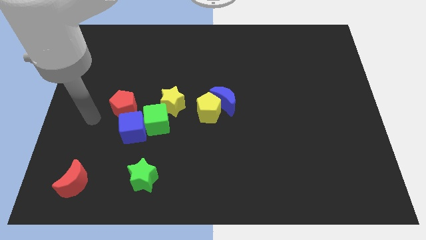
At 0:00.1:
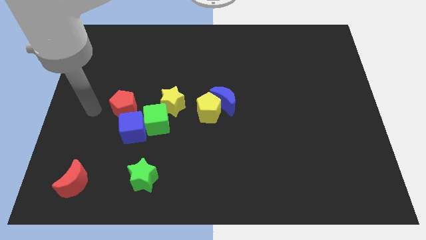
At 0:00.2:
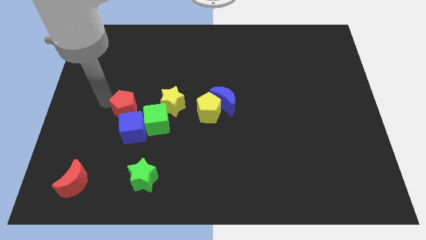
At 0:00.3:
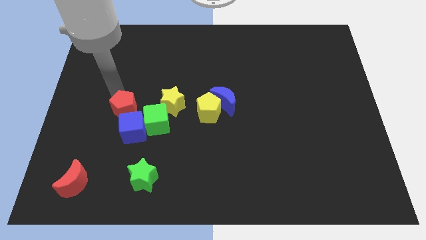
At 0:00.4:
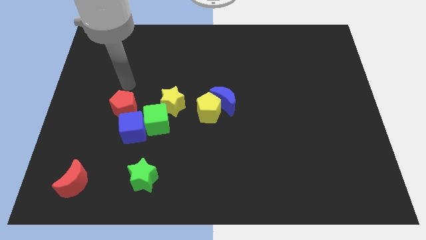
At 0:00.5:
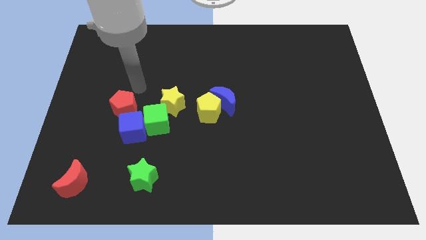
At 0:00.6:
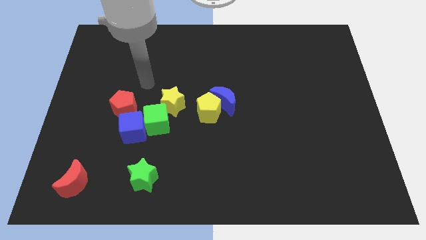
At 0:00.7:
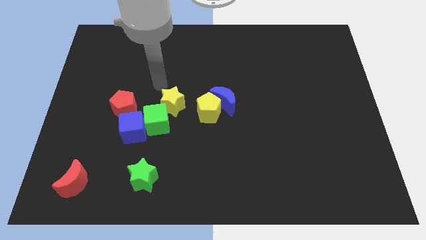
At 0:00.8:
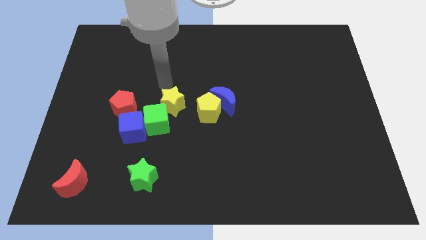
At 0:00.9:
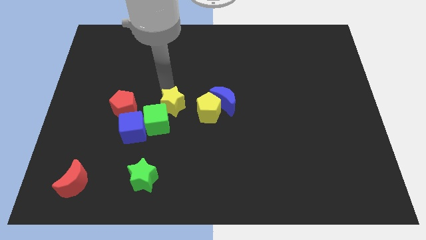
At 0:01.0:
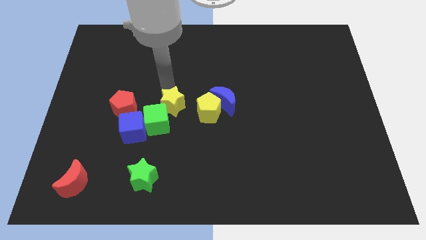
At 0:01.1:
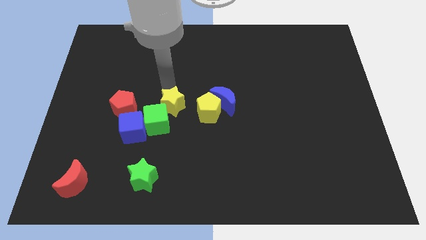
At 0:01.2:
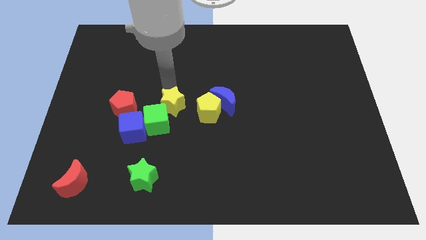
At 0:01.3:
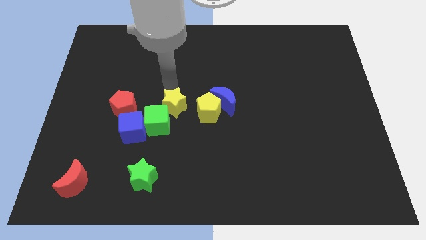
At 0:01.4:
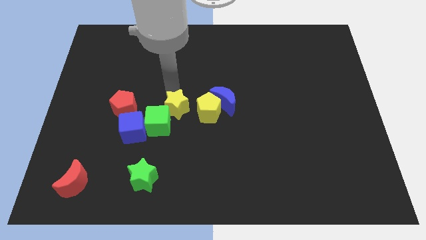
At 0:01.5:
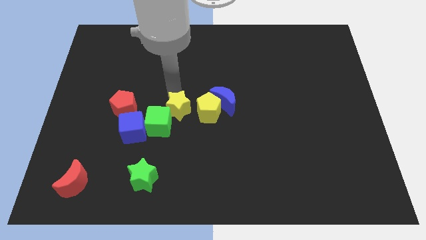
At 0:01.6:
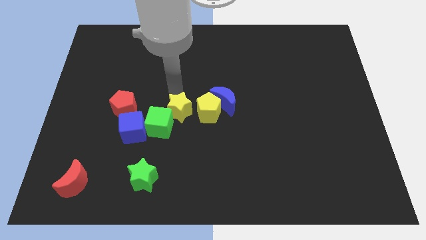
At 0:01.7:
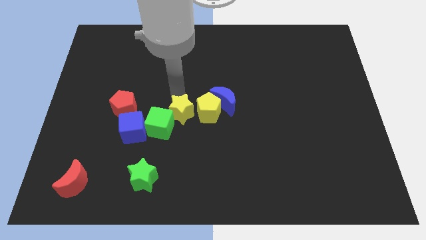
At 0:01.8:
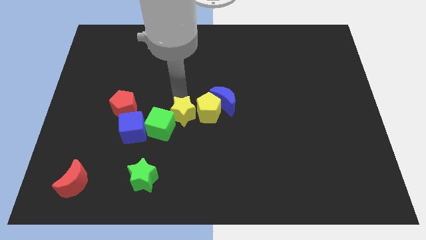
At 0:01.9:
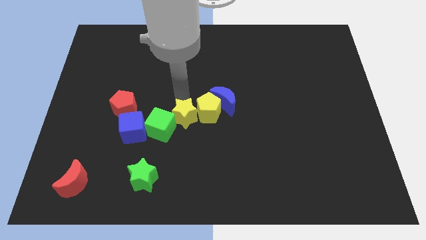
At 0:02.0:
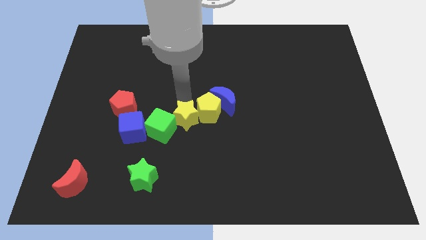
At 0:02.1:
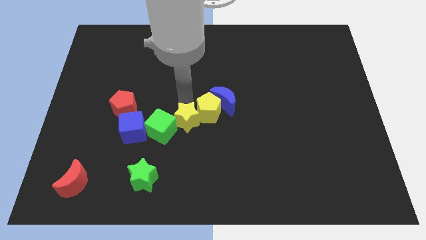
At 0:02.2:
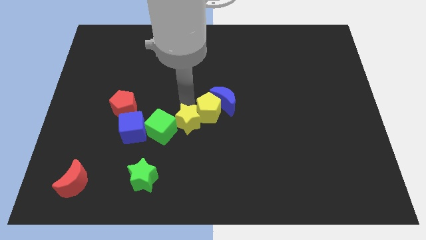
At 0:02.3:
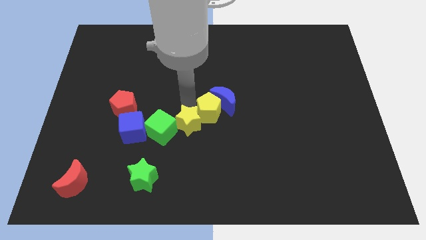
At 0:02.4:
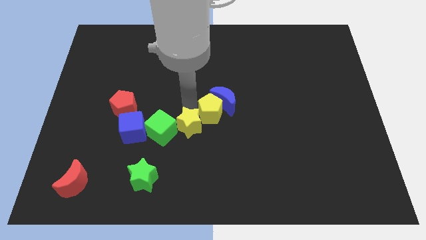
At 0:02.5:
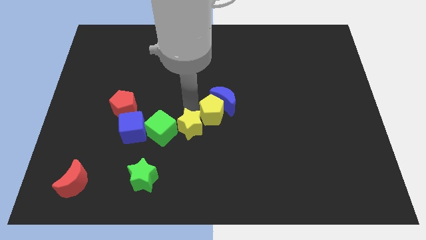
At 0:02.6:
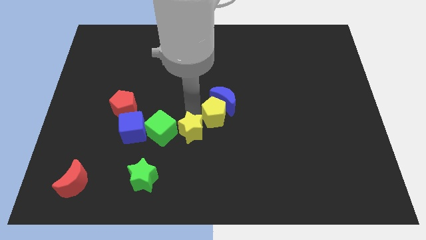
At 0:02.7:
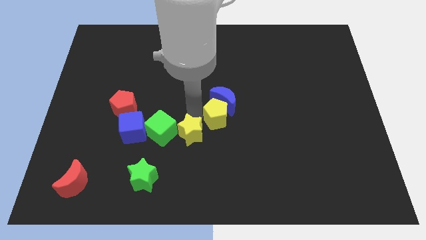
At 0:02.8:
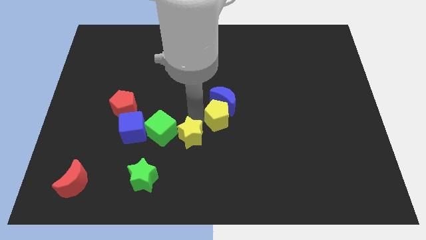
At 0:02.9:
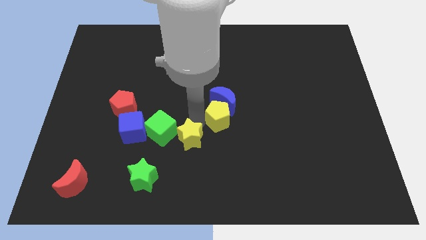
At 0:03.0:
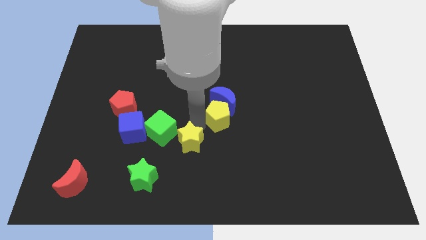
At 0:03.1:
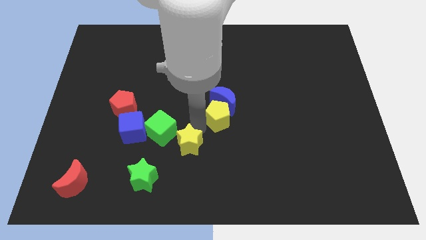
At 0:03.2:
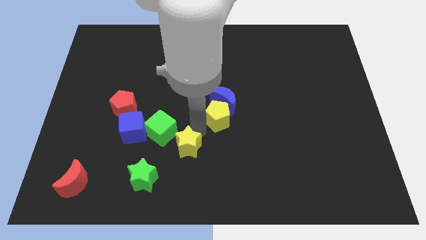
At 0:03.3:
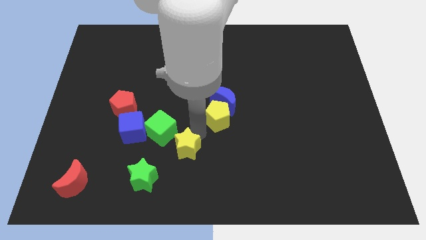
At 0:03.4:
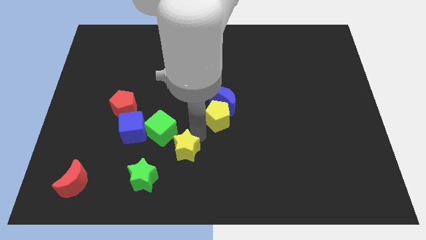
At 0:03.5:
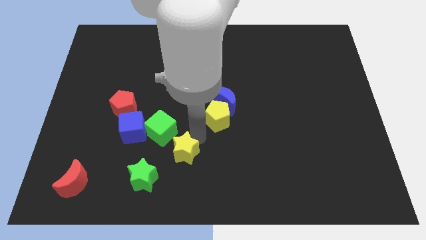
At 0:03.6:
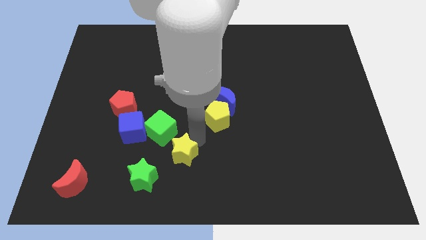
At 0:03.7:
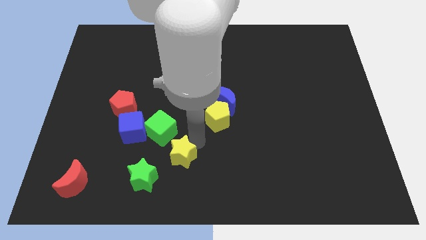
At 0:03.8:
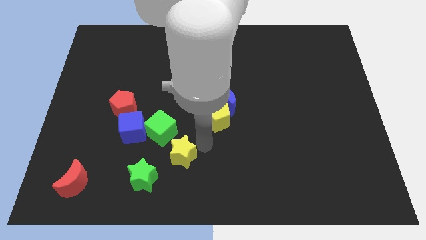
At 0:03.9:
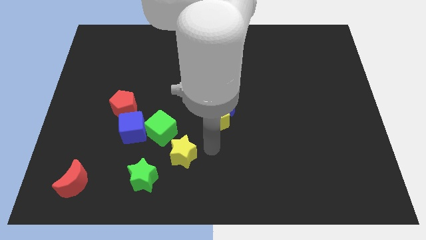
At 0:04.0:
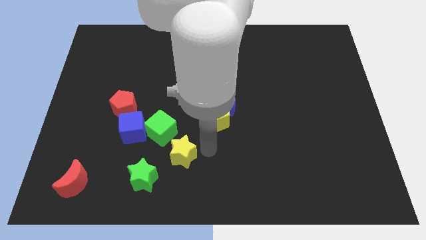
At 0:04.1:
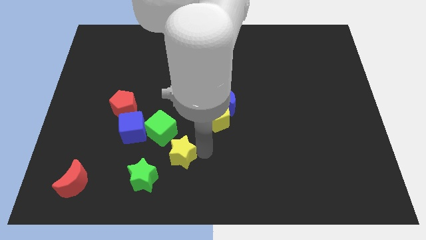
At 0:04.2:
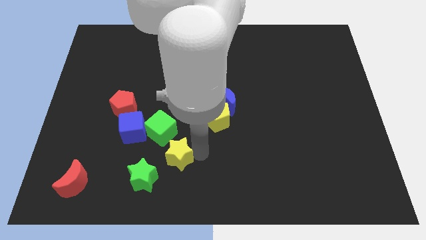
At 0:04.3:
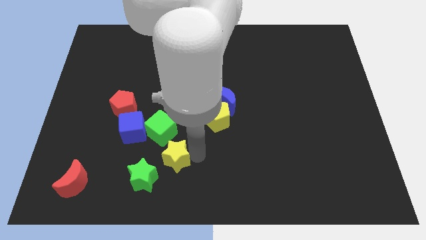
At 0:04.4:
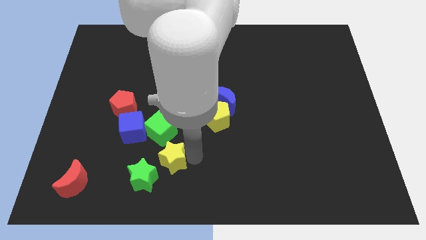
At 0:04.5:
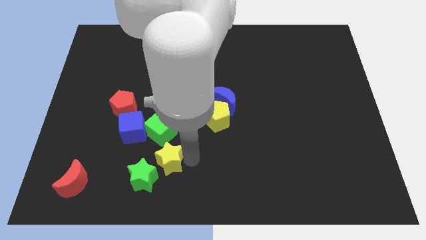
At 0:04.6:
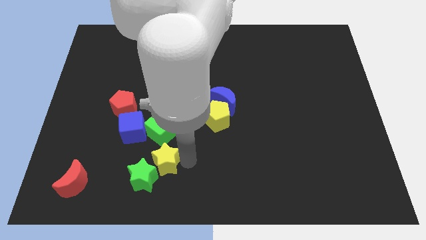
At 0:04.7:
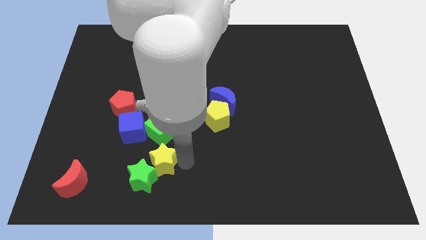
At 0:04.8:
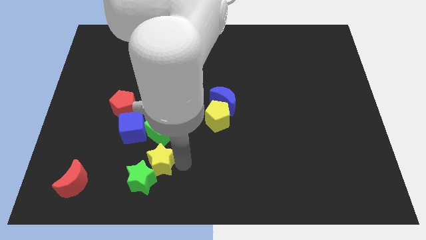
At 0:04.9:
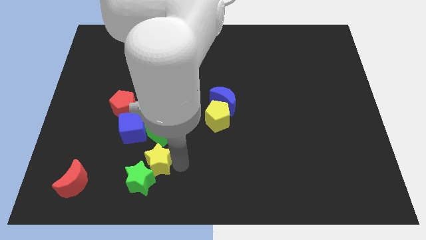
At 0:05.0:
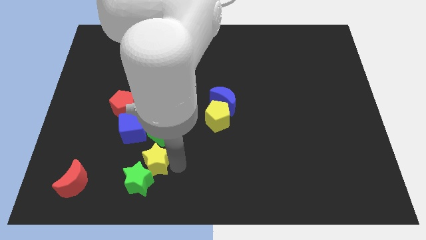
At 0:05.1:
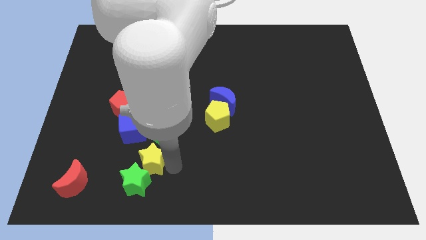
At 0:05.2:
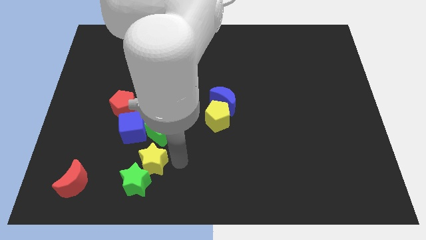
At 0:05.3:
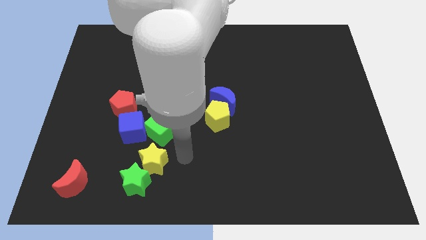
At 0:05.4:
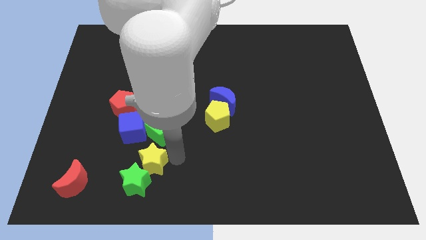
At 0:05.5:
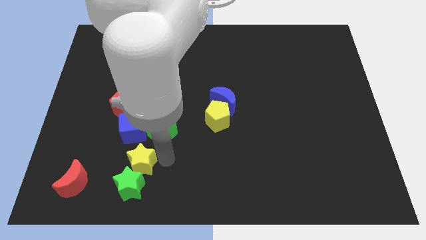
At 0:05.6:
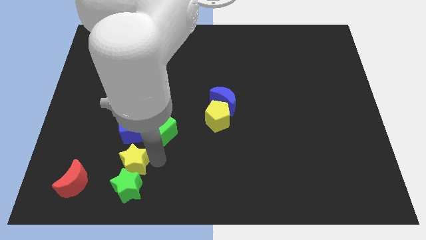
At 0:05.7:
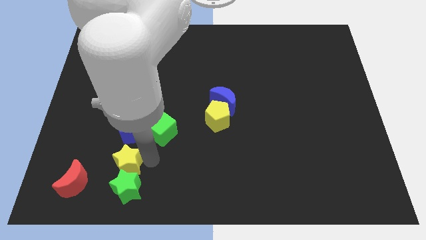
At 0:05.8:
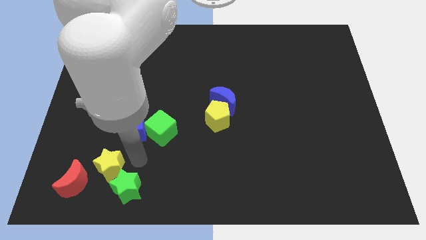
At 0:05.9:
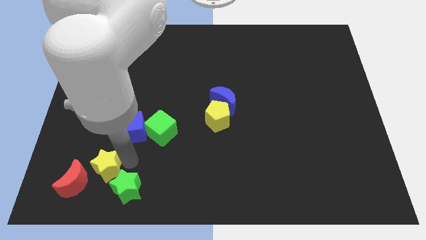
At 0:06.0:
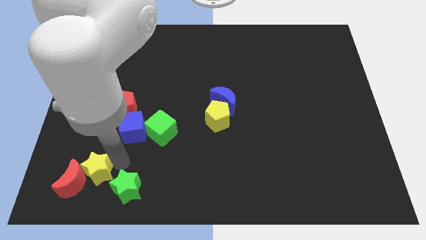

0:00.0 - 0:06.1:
put the yellow star close to the red moon

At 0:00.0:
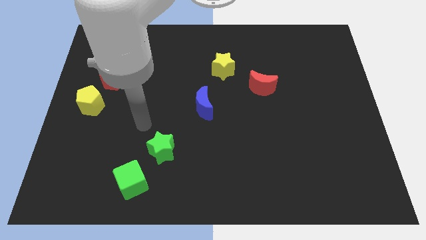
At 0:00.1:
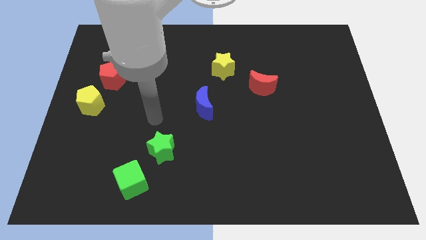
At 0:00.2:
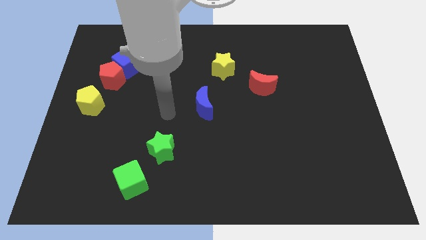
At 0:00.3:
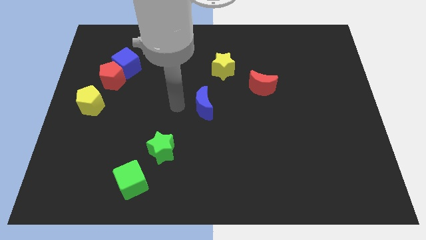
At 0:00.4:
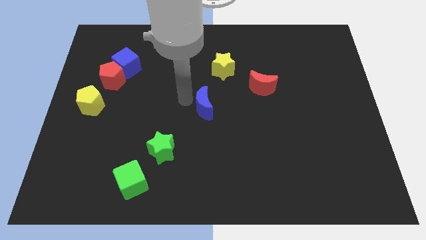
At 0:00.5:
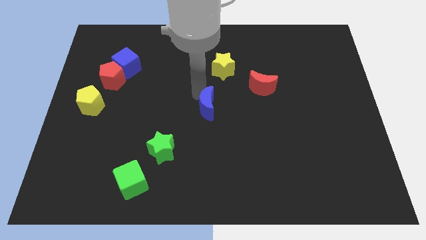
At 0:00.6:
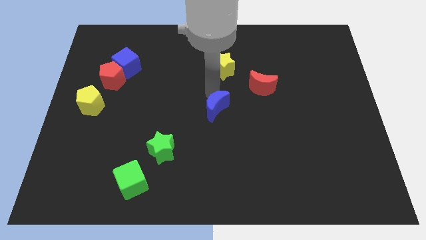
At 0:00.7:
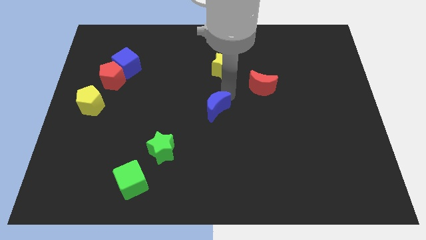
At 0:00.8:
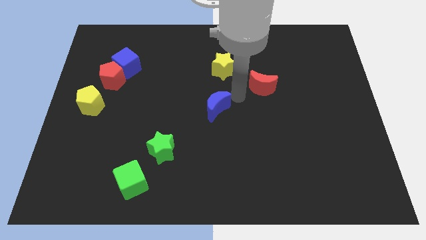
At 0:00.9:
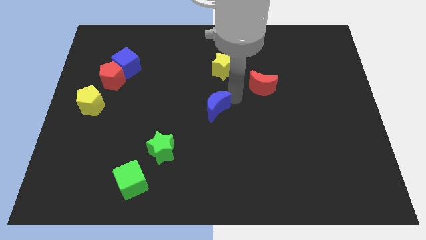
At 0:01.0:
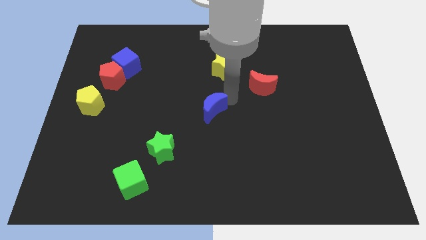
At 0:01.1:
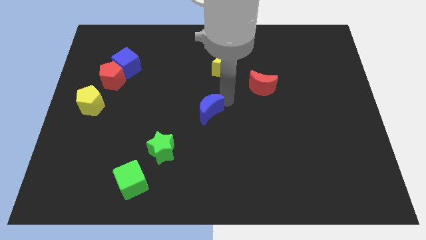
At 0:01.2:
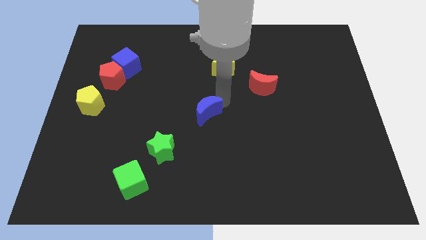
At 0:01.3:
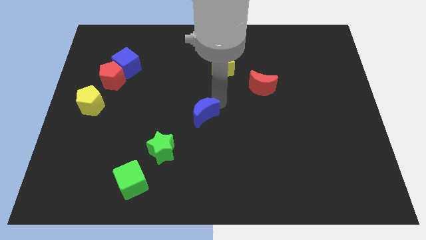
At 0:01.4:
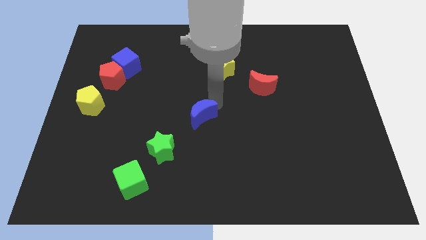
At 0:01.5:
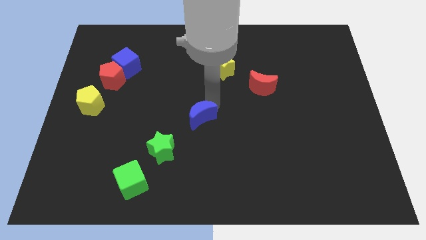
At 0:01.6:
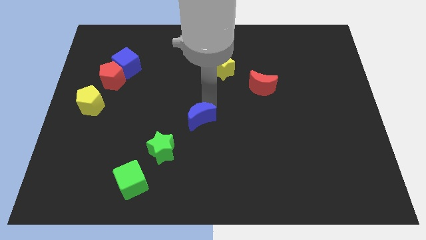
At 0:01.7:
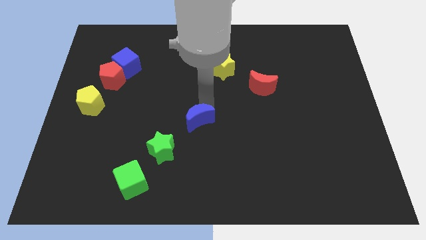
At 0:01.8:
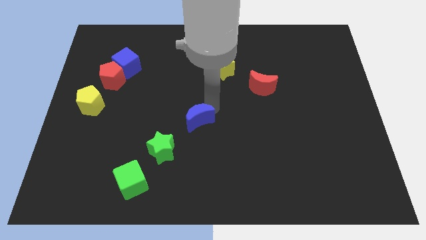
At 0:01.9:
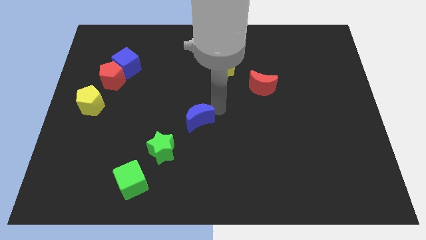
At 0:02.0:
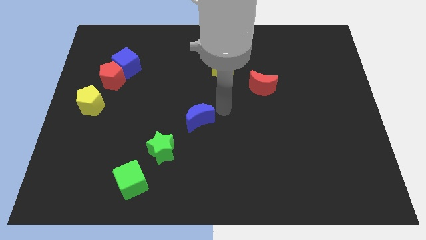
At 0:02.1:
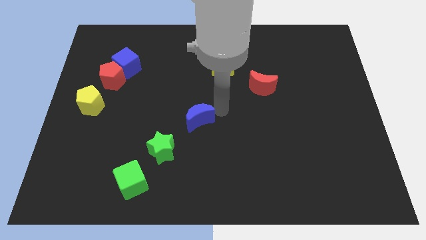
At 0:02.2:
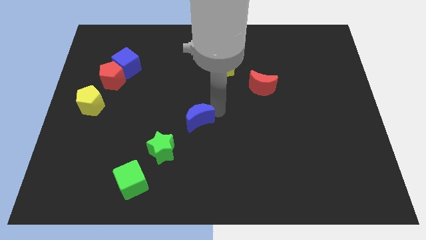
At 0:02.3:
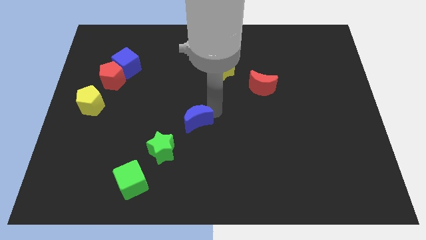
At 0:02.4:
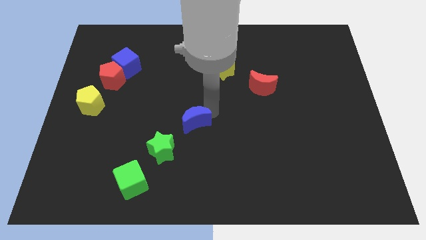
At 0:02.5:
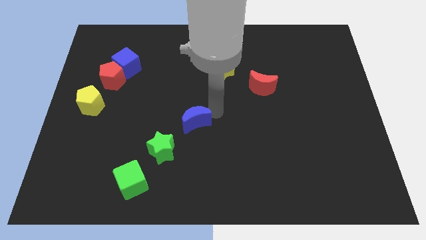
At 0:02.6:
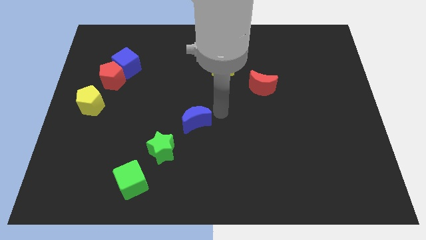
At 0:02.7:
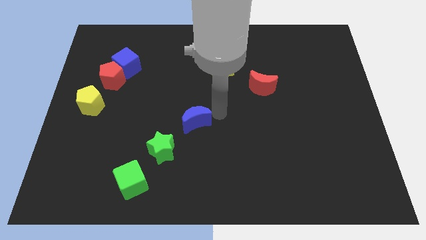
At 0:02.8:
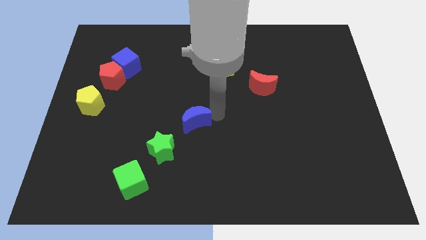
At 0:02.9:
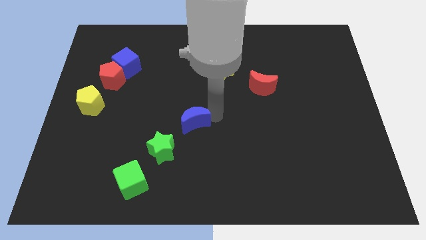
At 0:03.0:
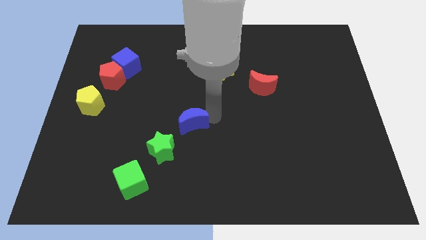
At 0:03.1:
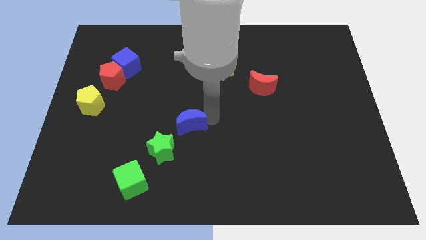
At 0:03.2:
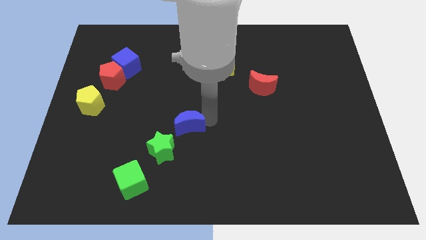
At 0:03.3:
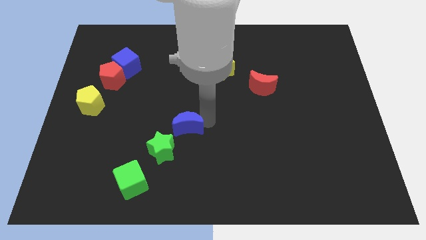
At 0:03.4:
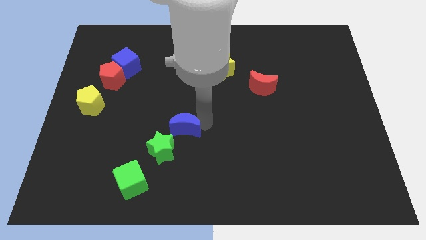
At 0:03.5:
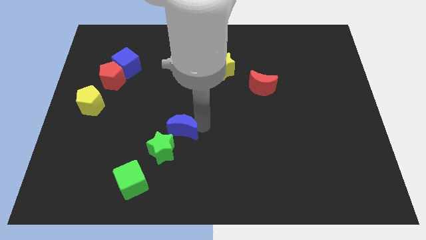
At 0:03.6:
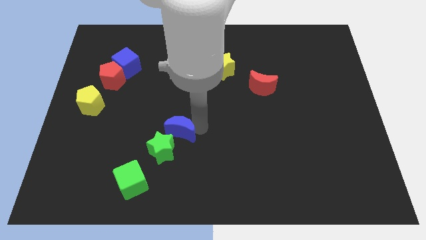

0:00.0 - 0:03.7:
put the blue moon next to the green star
